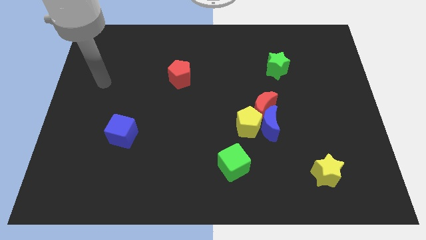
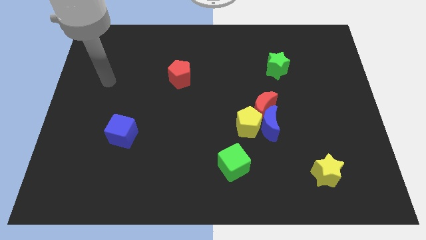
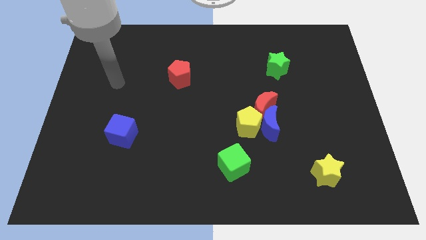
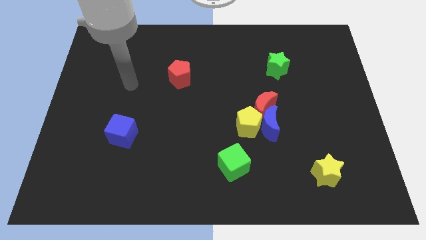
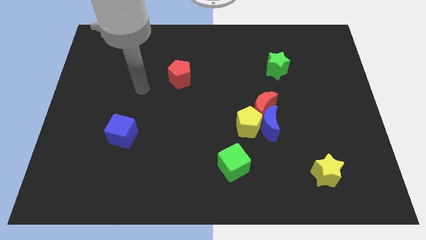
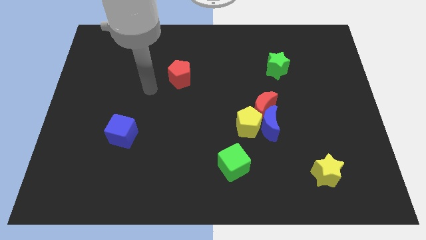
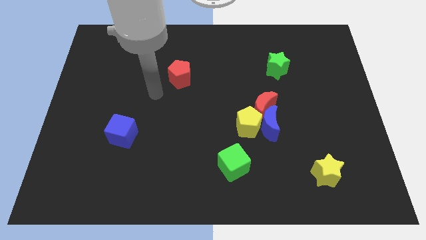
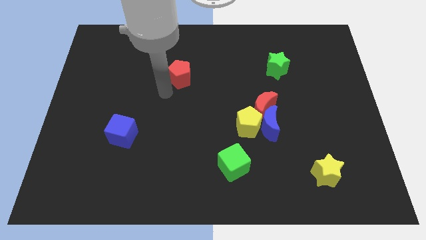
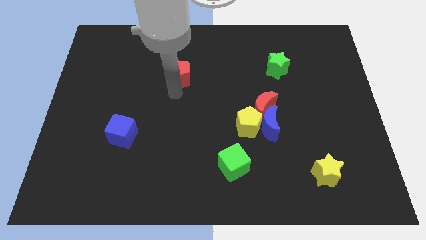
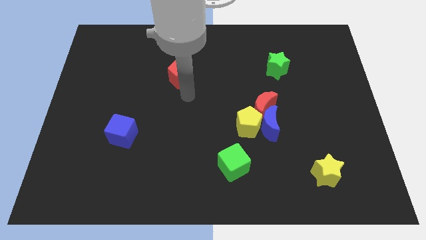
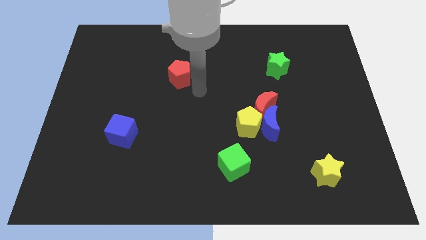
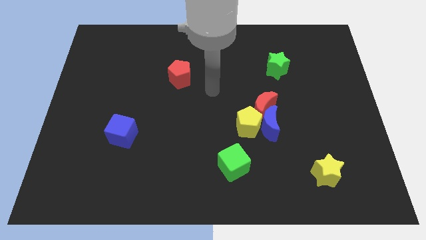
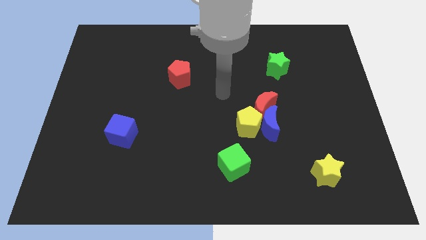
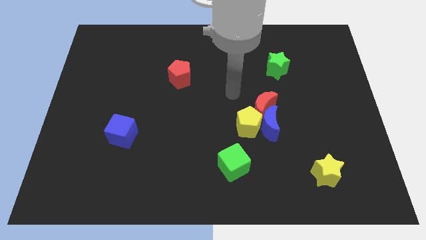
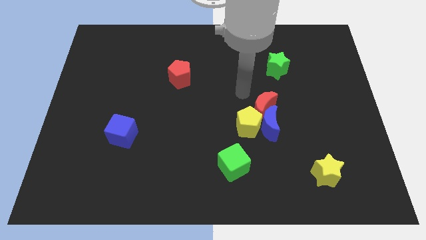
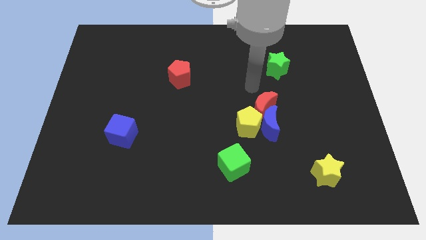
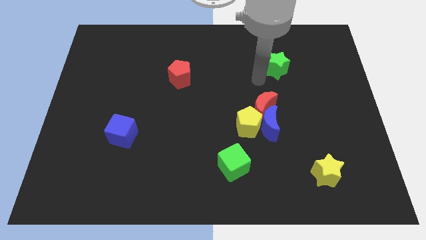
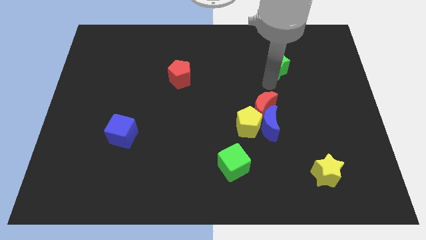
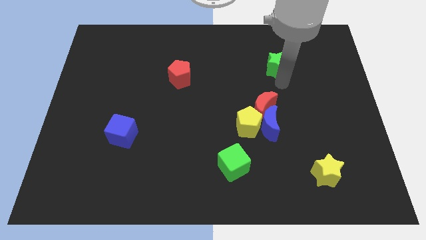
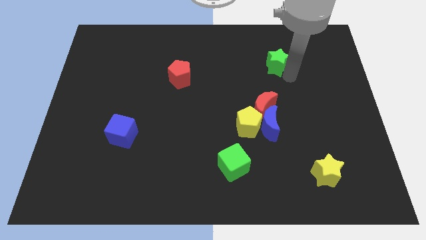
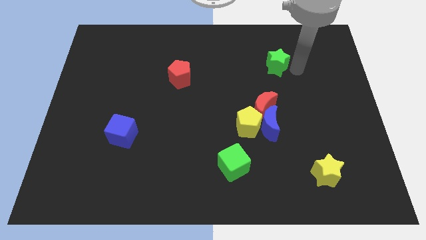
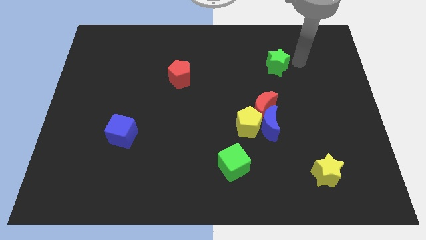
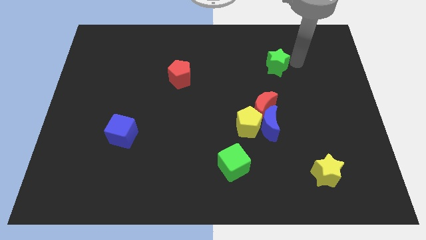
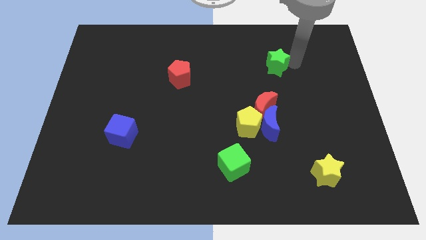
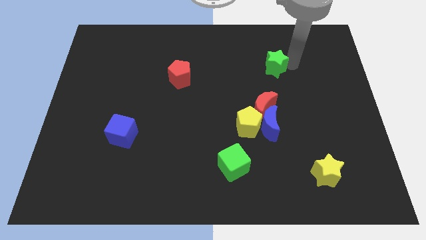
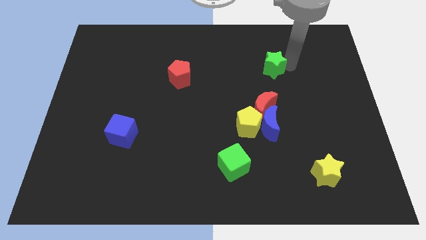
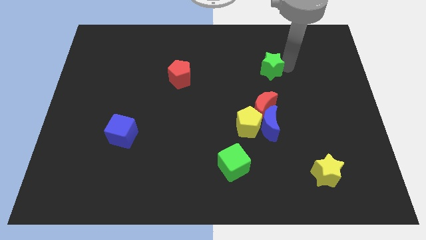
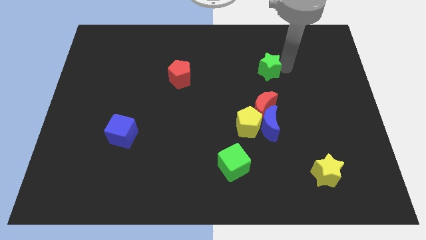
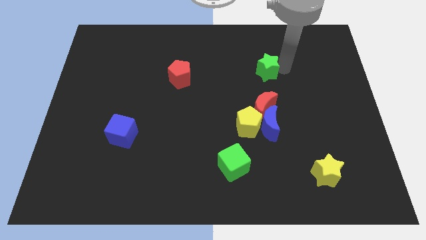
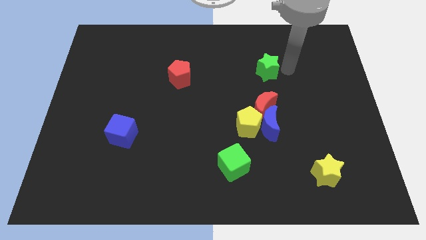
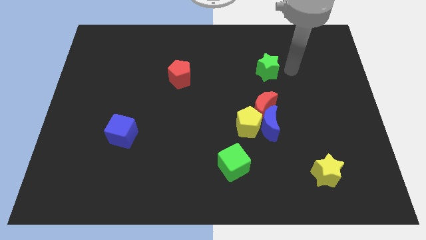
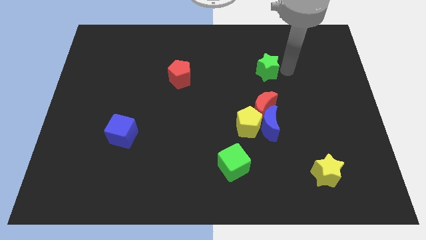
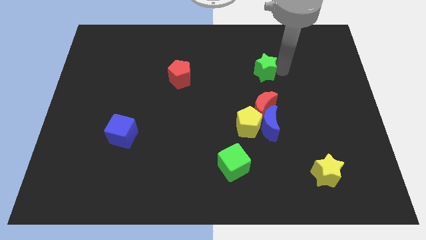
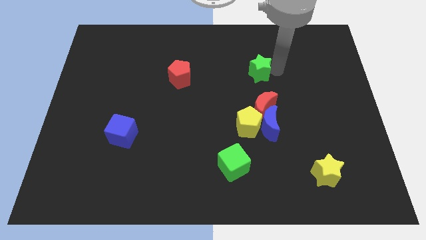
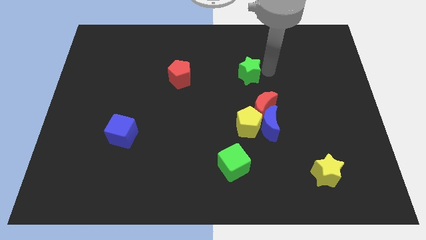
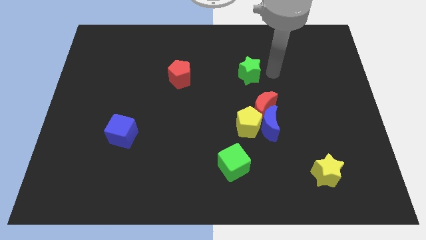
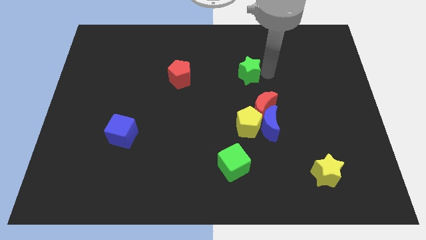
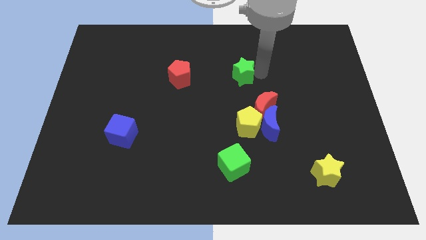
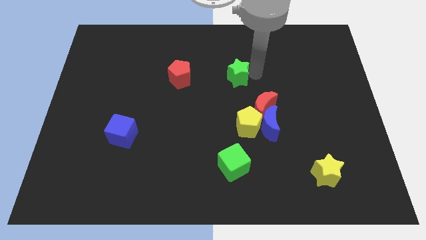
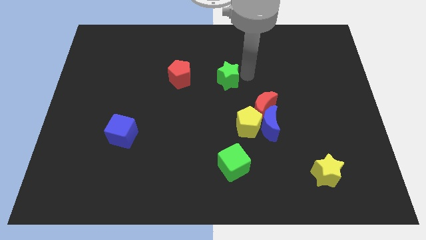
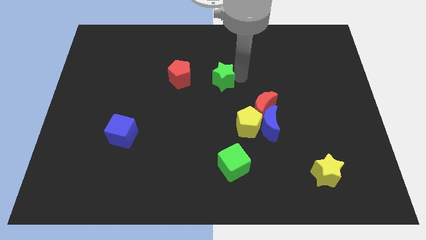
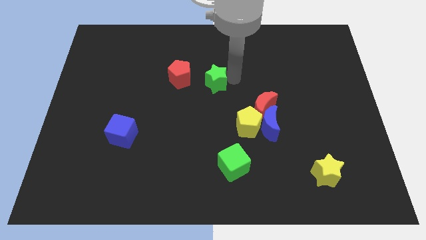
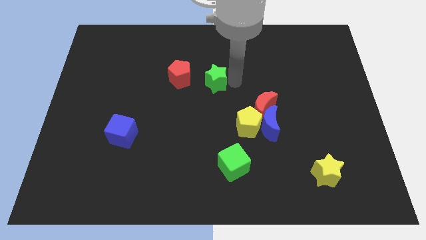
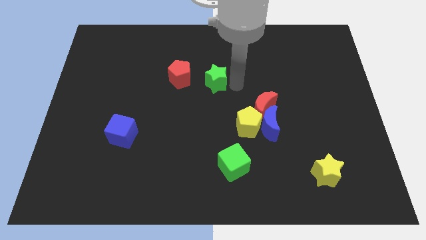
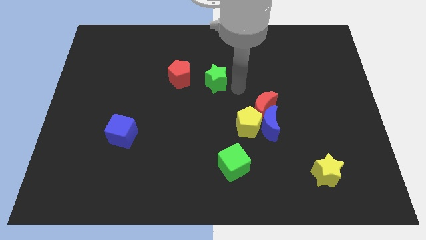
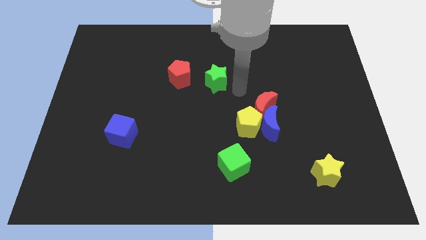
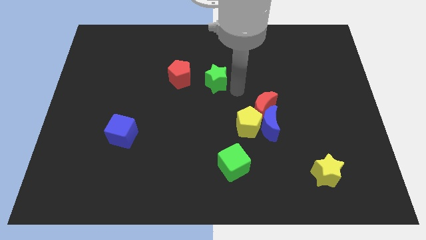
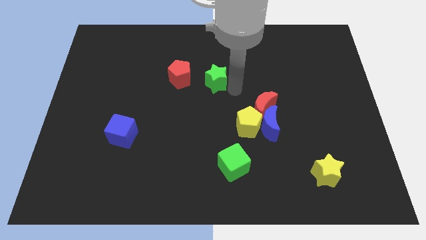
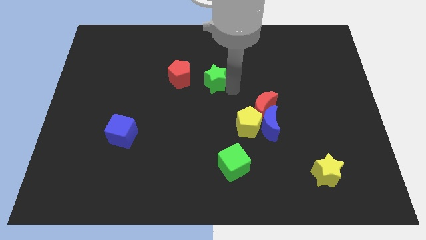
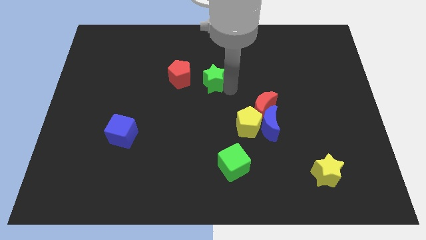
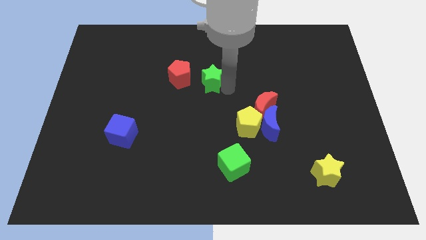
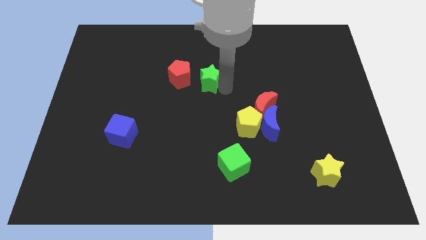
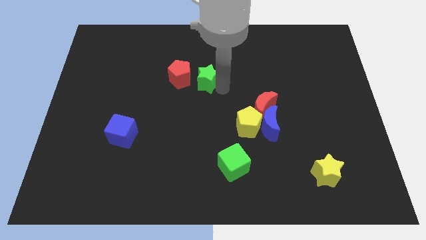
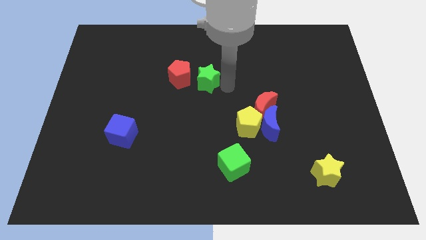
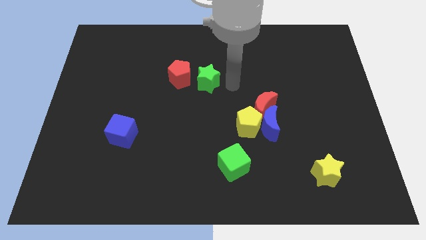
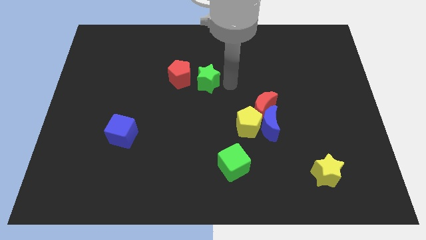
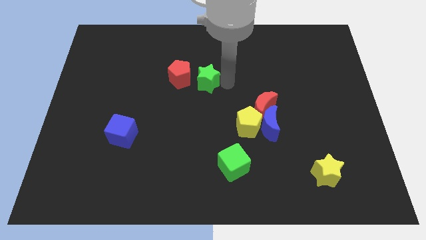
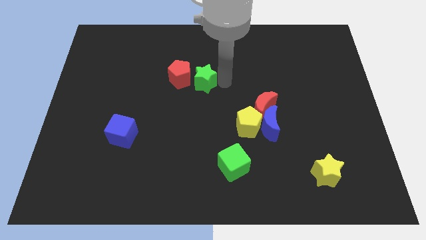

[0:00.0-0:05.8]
slide the green star next to the red pentagon

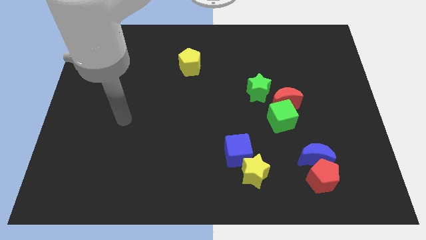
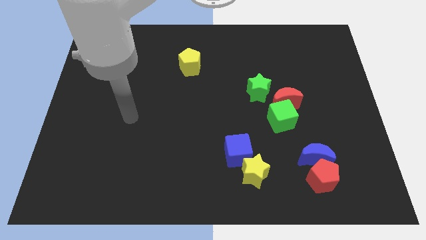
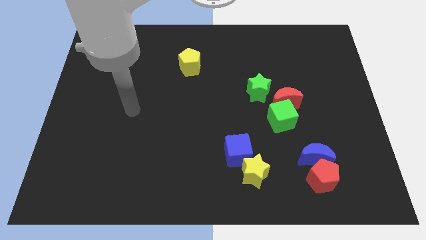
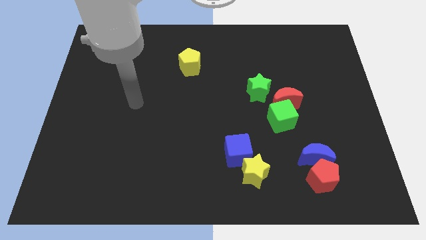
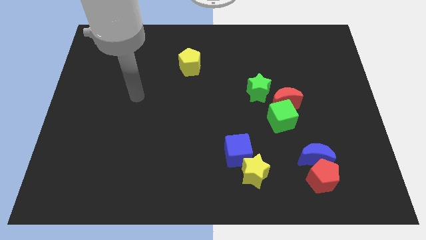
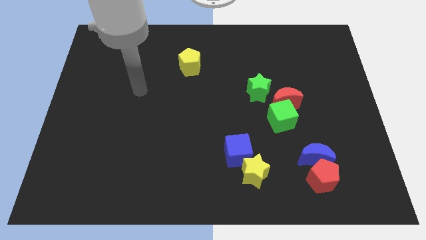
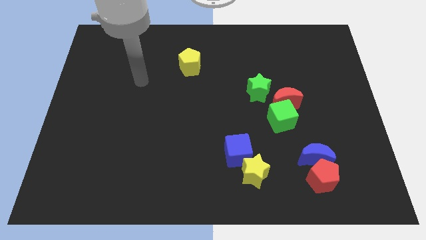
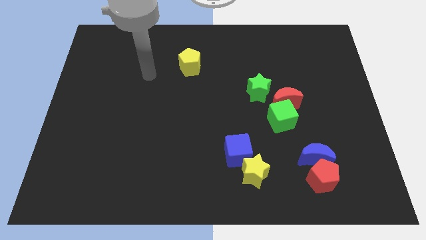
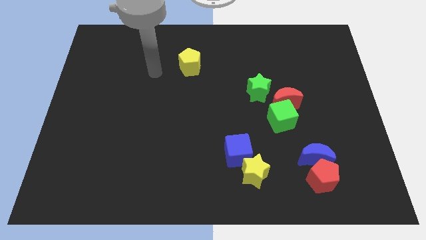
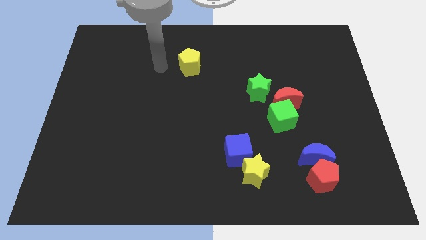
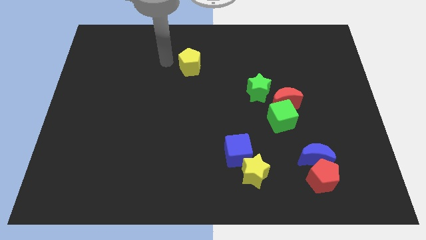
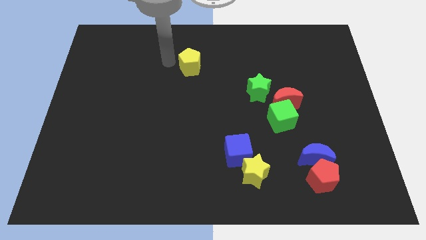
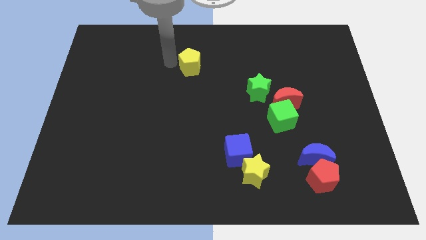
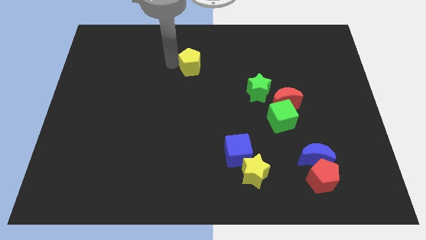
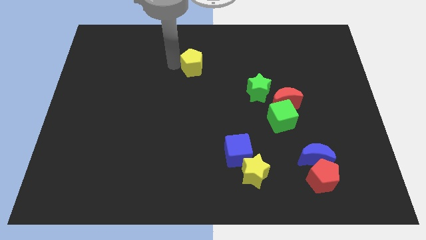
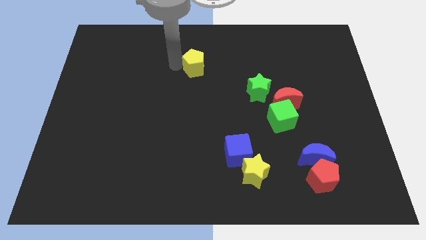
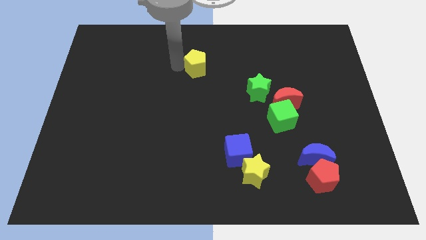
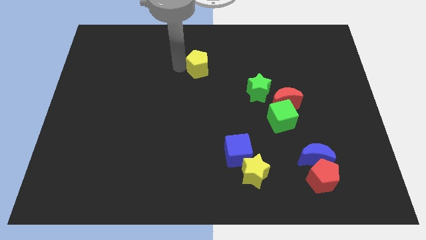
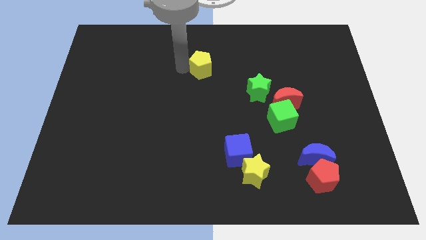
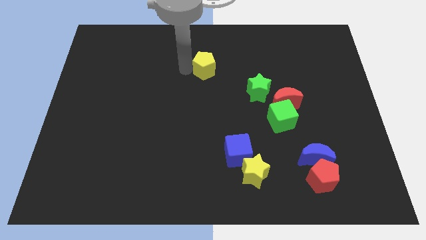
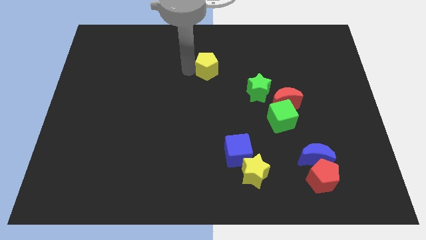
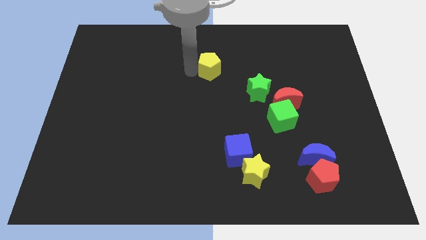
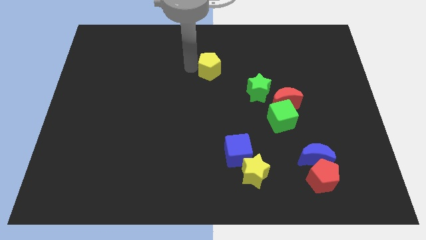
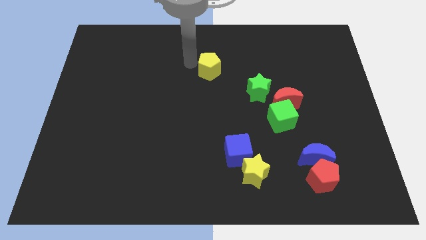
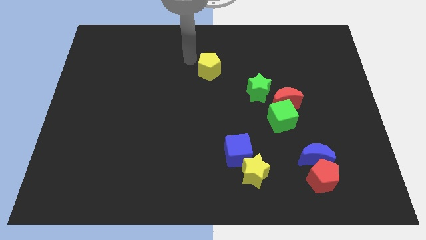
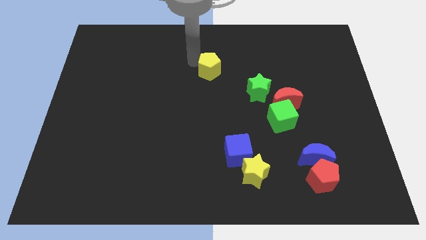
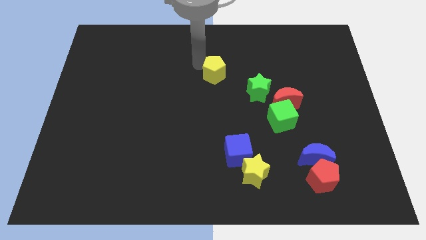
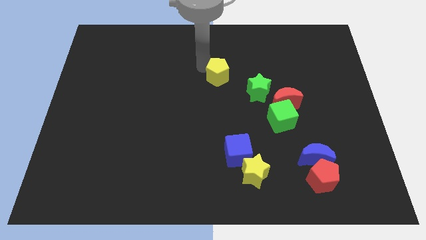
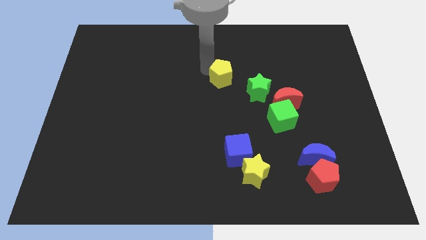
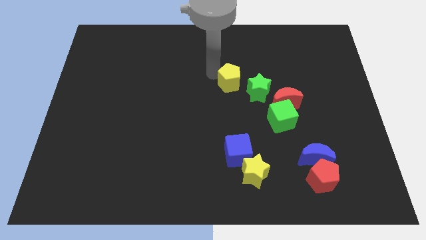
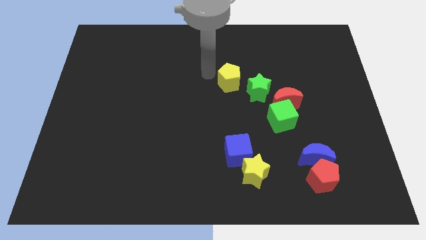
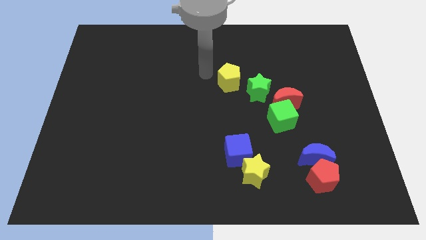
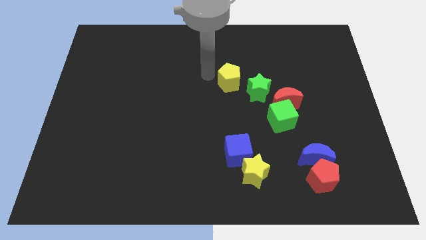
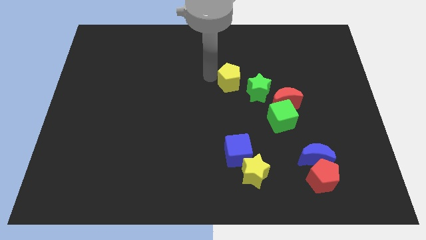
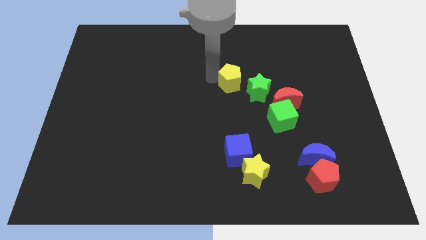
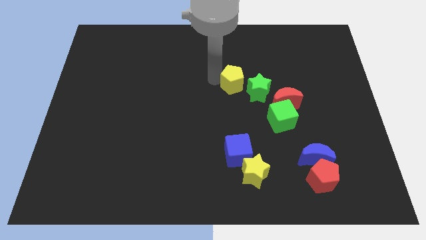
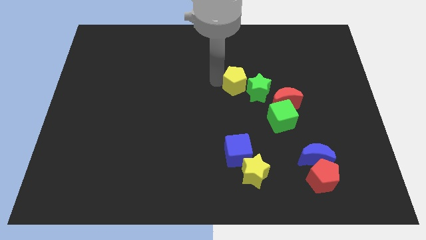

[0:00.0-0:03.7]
slide the yellow pentagon to the green star
